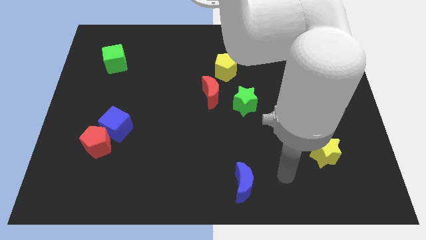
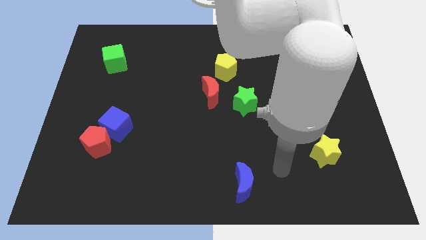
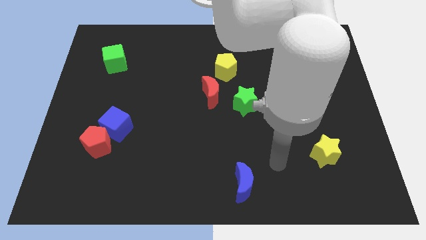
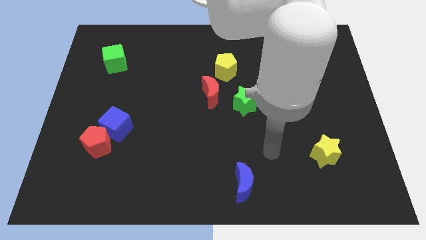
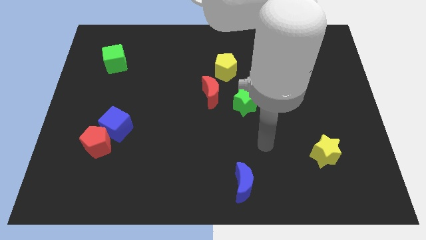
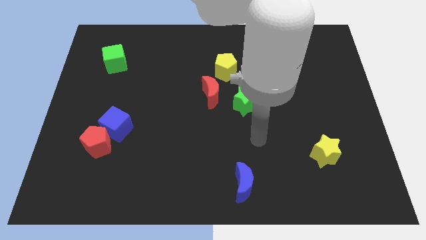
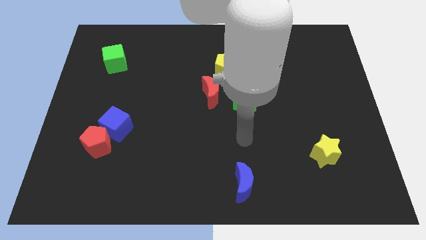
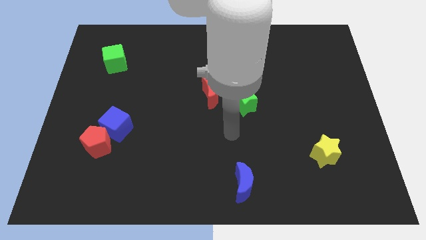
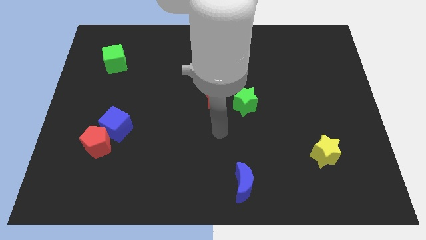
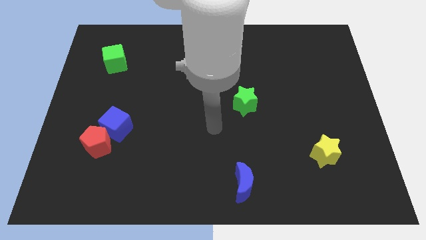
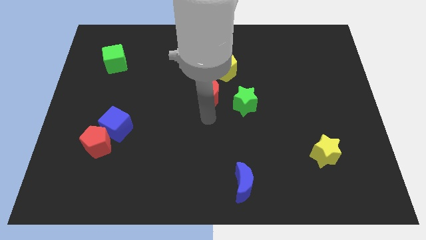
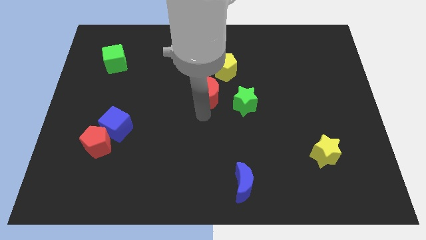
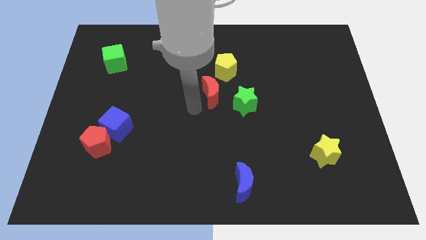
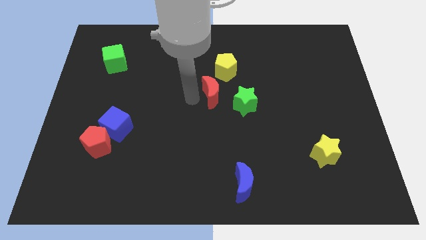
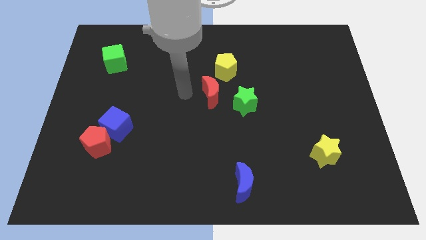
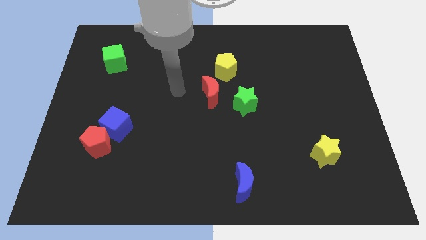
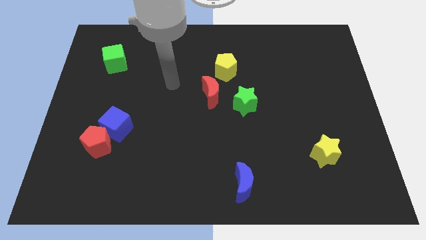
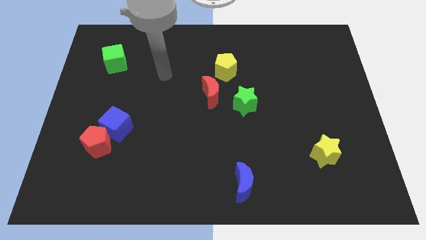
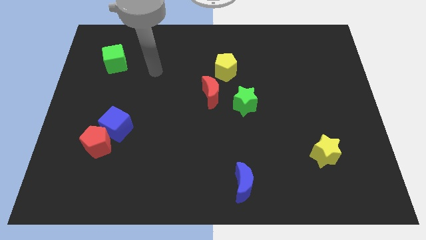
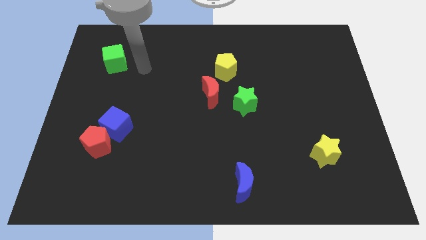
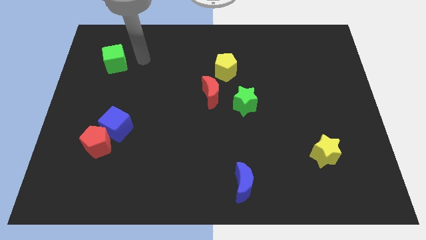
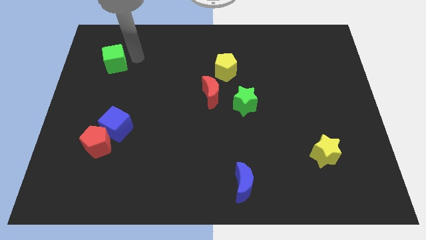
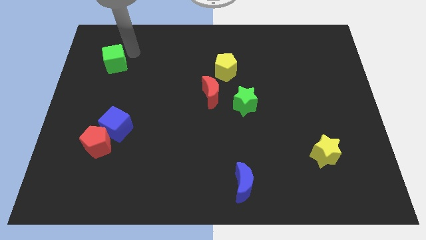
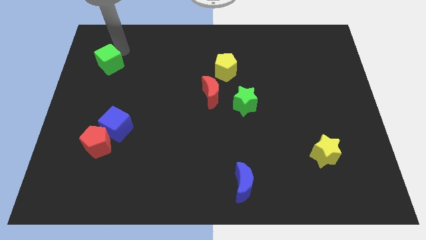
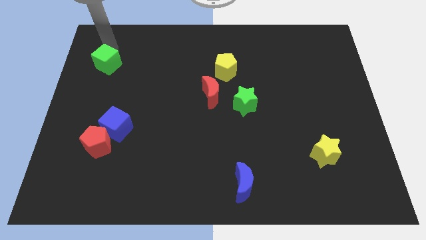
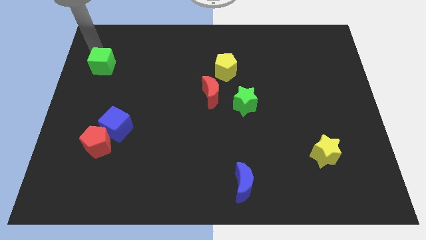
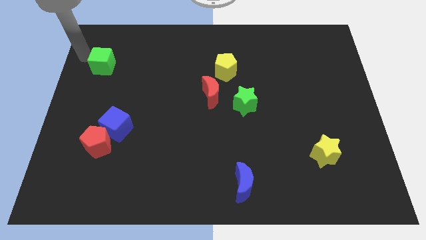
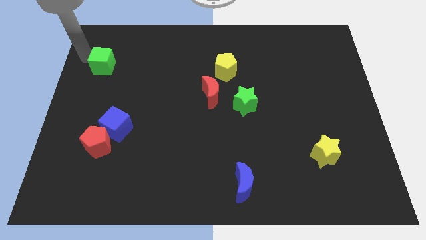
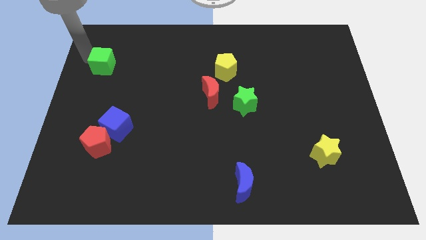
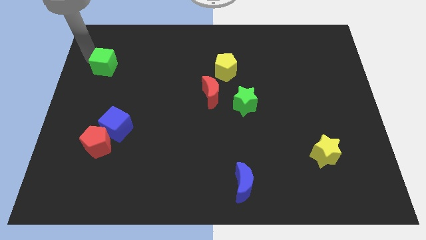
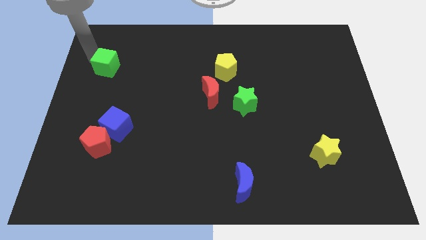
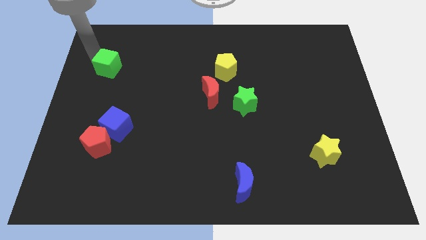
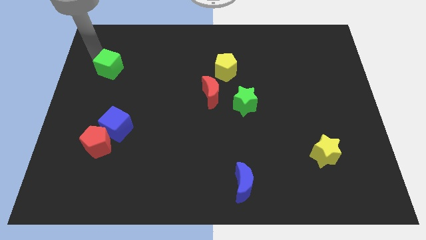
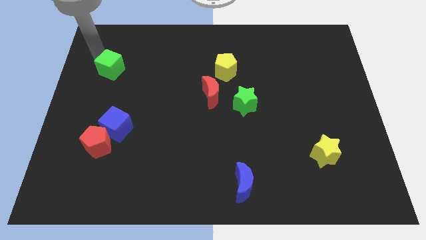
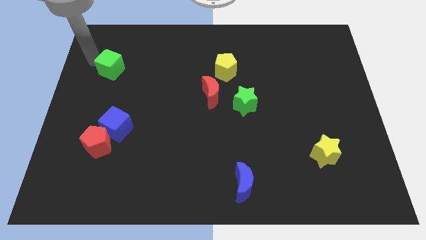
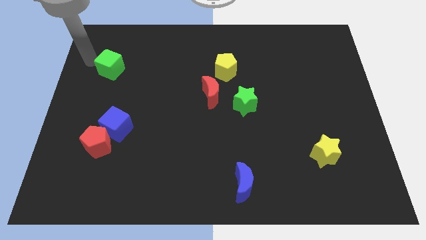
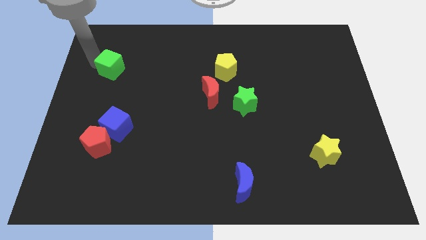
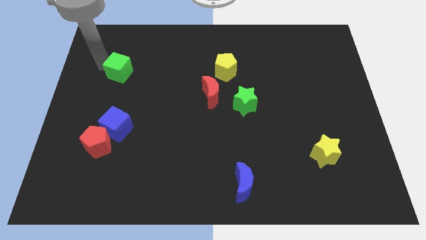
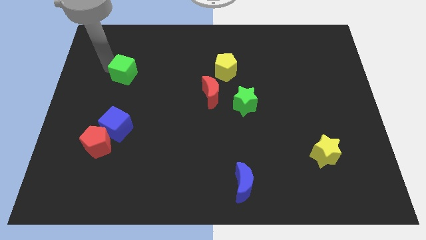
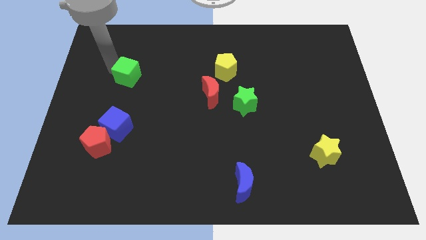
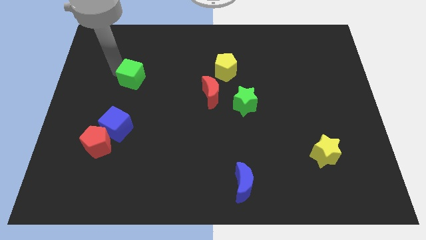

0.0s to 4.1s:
slide the green cube diagonally downwards and to the right a little bit

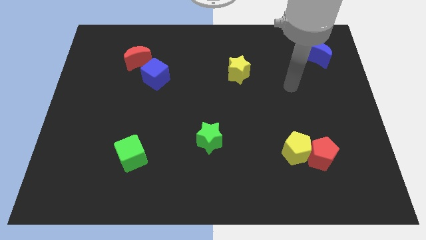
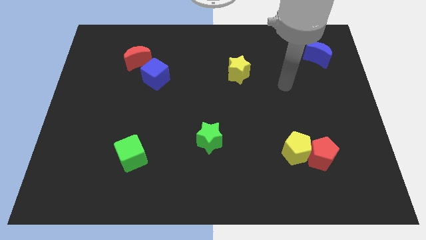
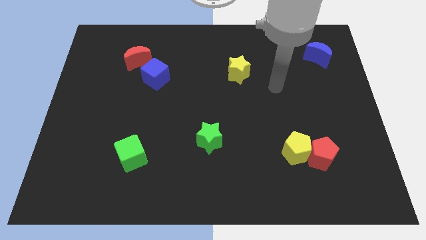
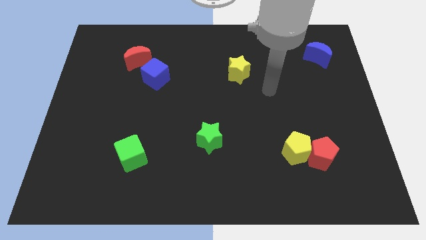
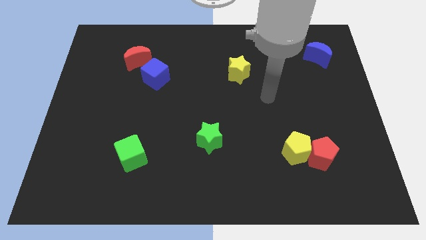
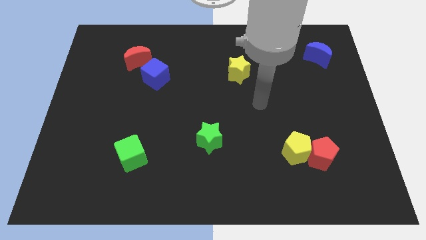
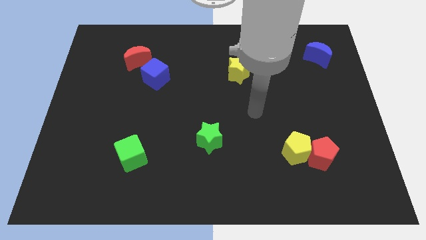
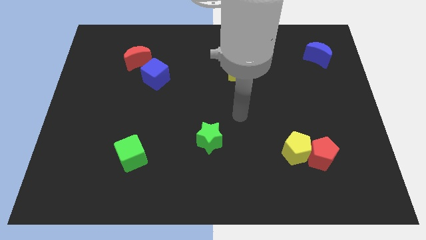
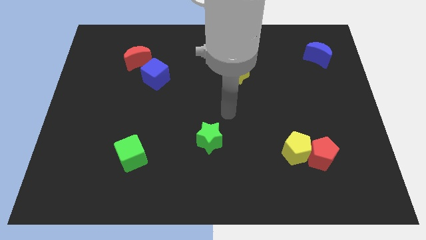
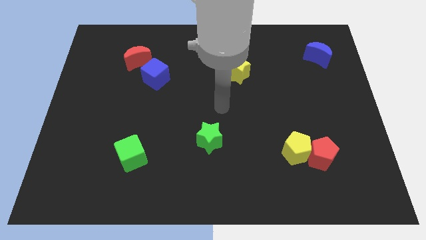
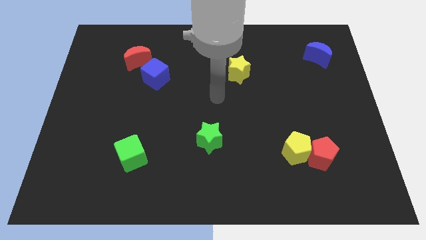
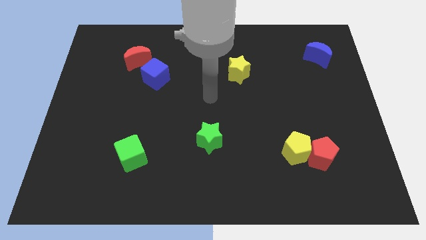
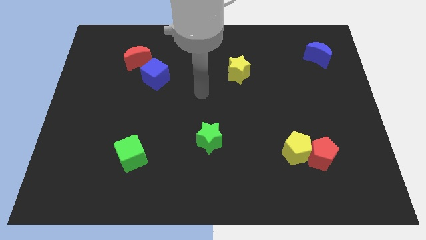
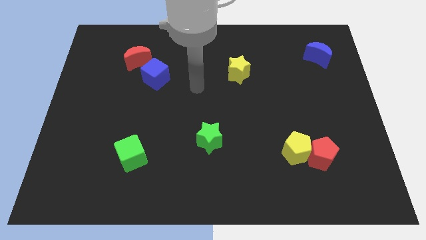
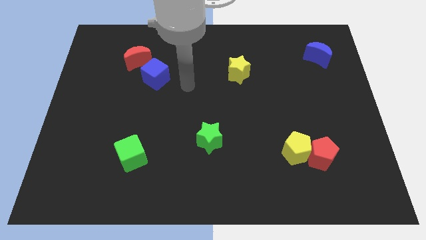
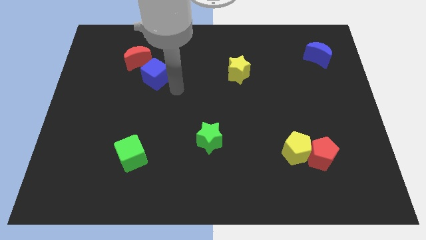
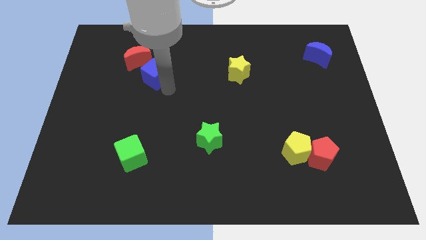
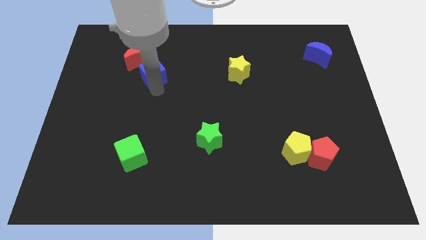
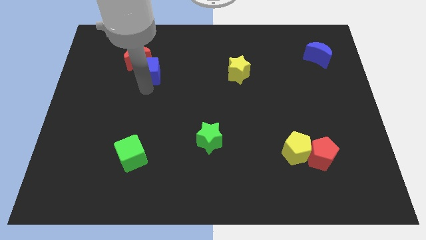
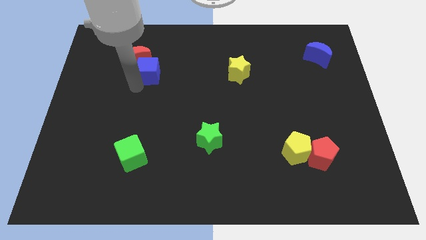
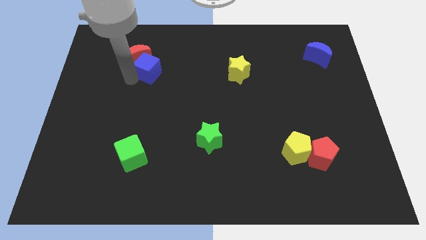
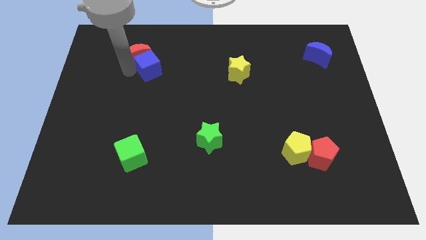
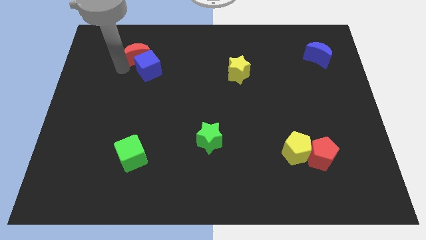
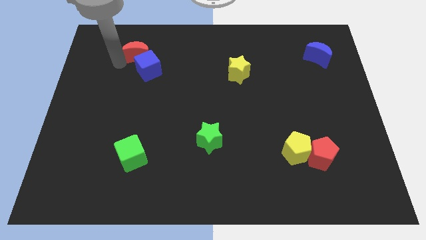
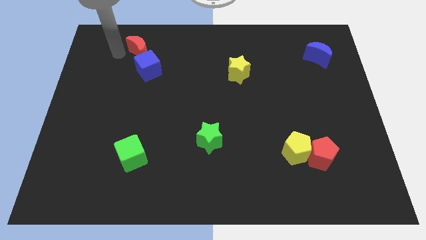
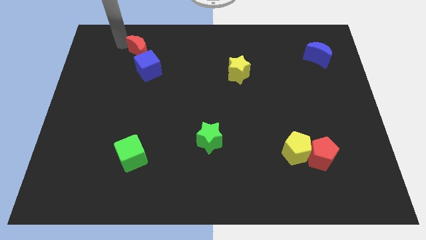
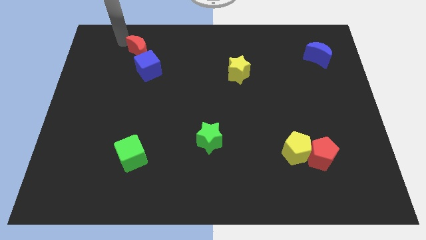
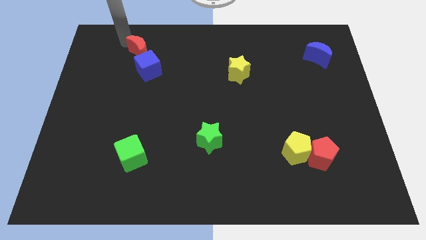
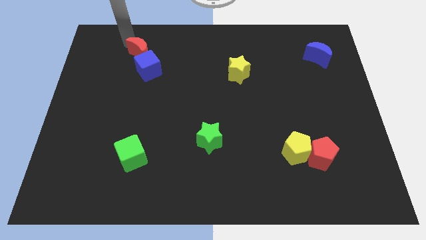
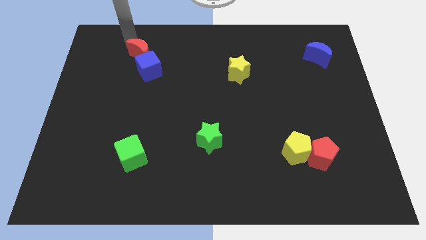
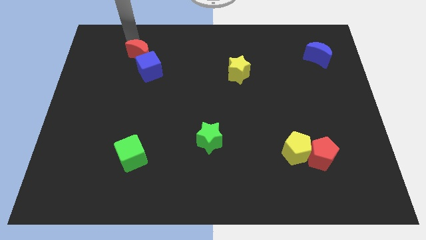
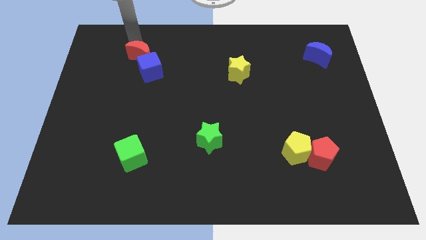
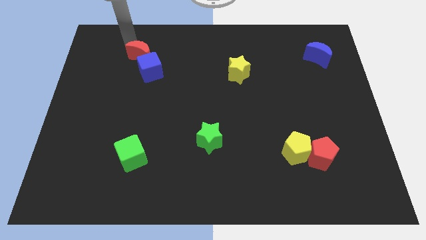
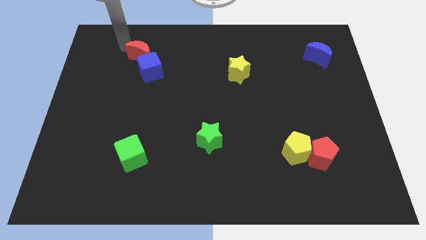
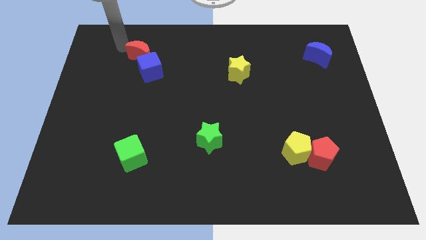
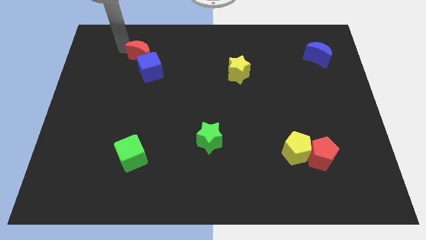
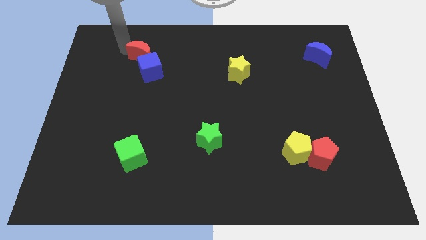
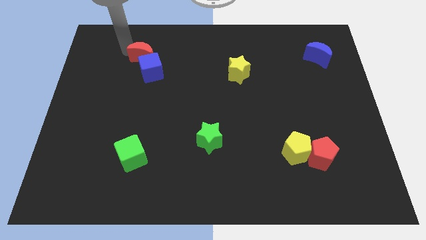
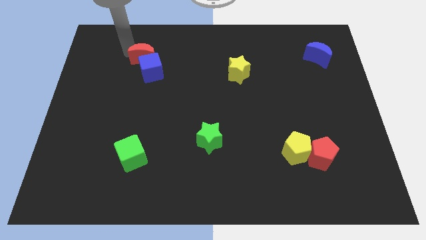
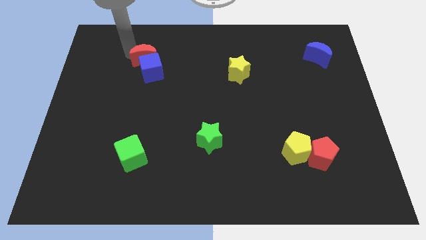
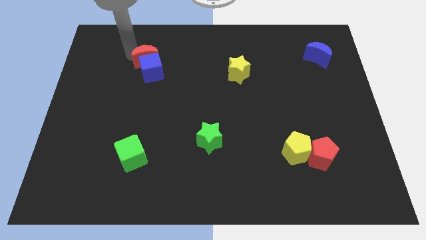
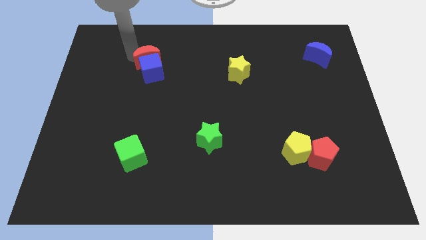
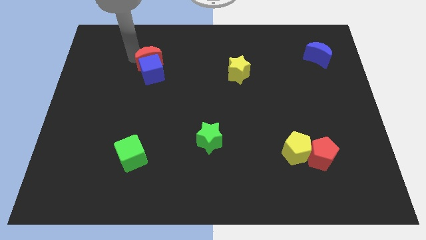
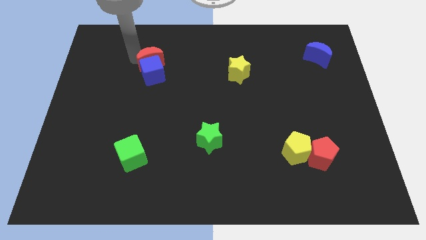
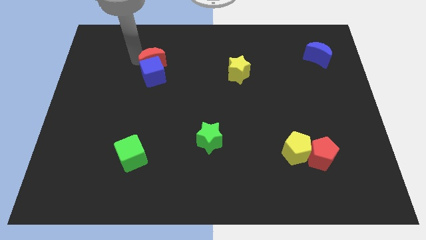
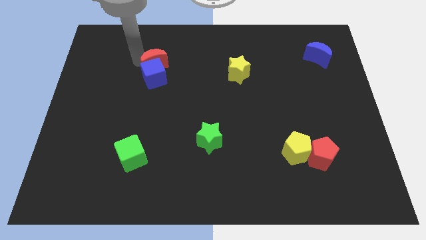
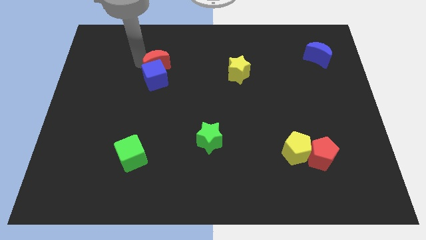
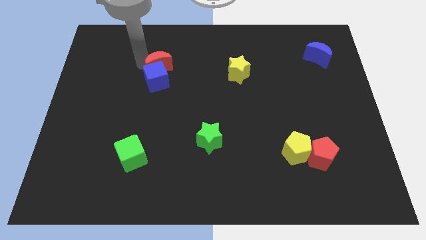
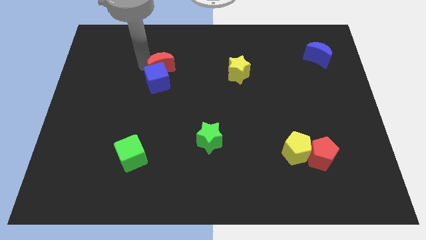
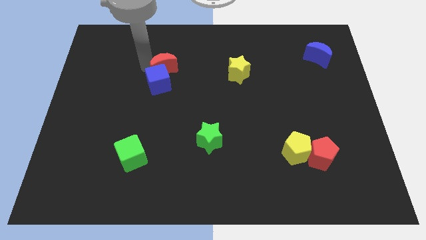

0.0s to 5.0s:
slightly slide the red moon to the right
